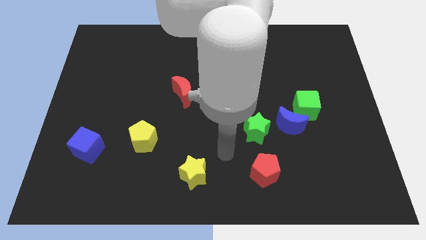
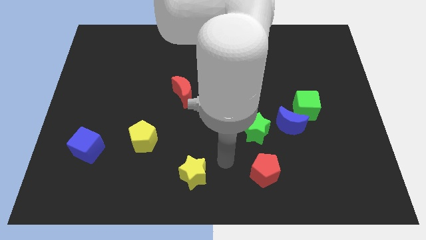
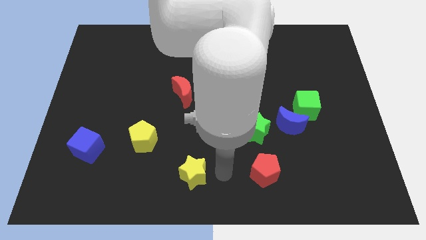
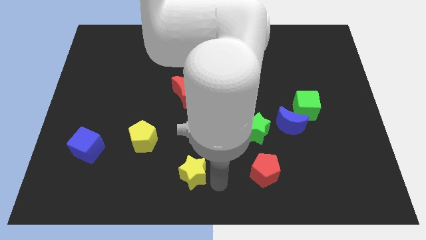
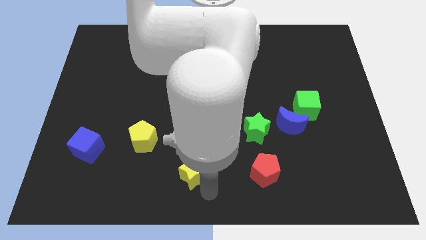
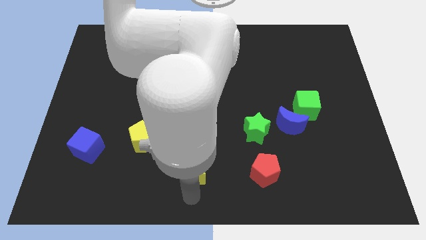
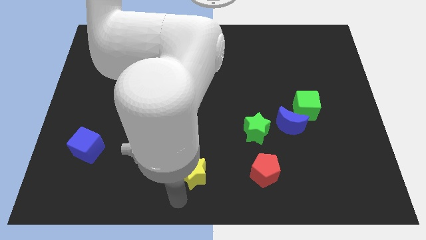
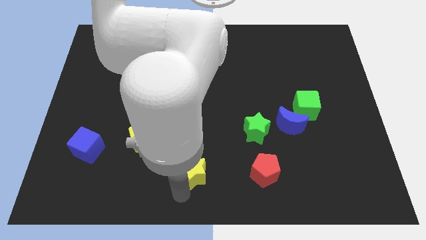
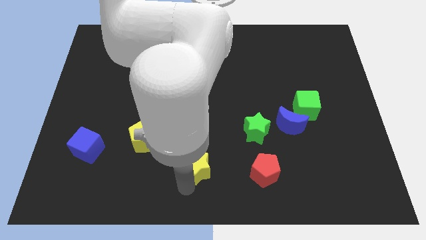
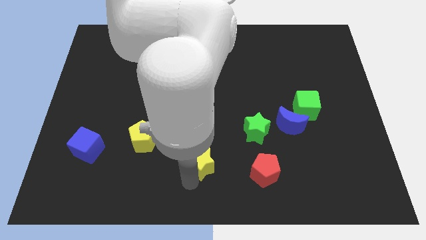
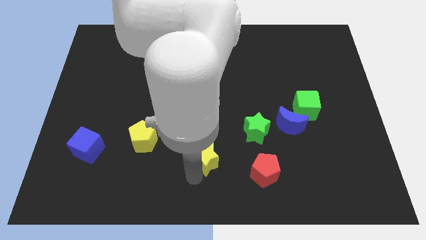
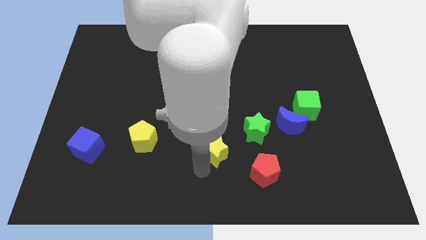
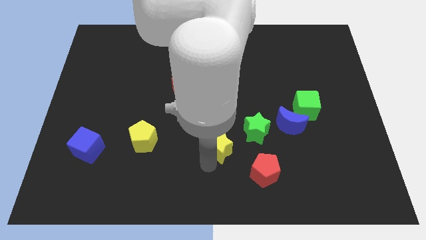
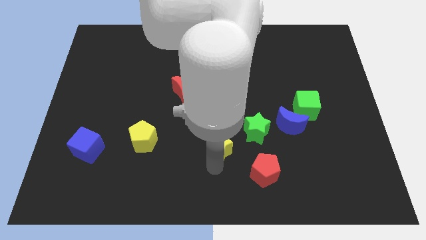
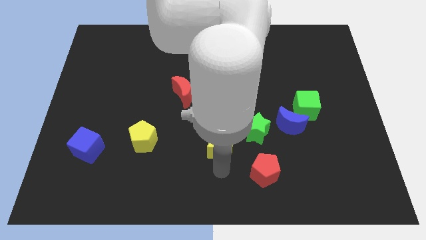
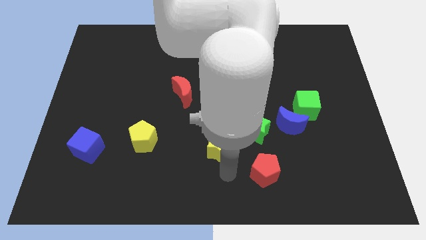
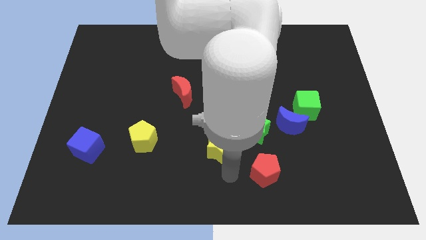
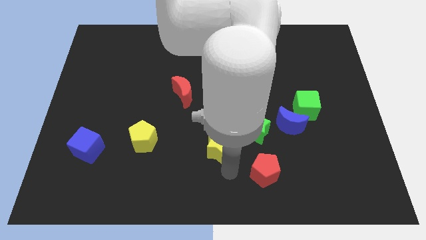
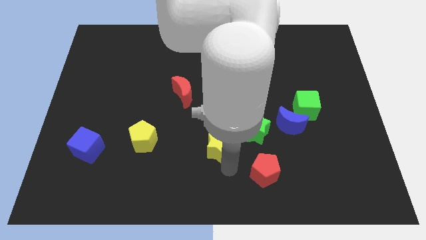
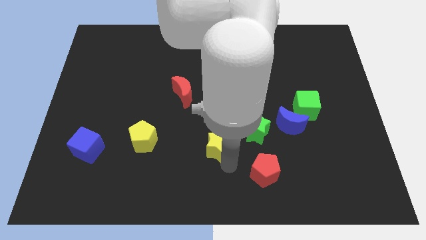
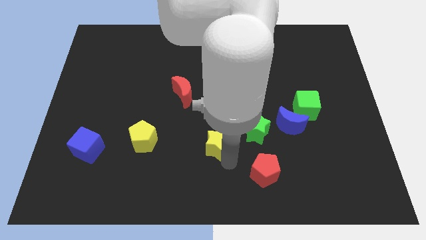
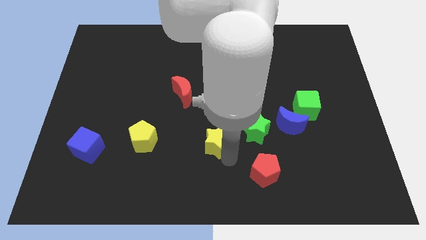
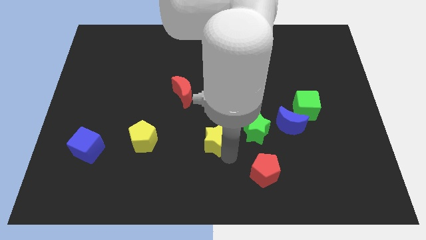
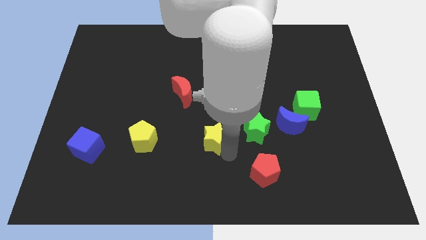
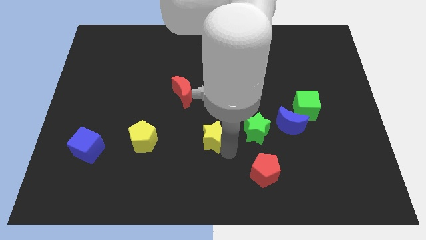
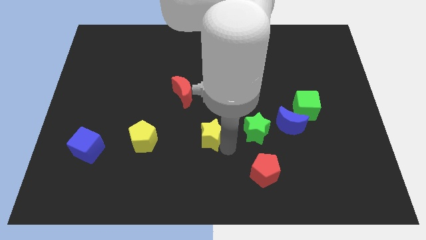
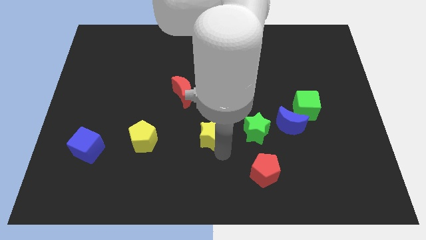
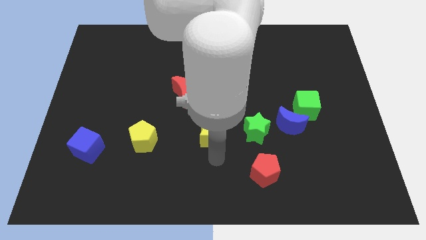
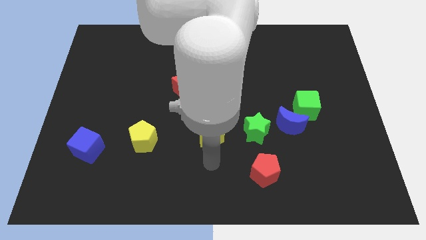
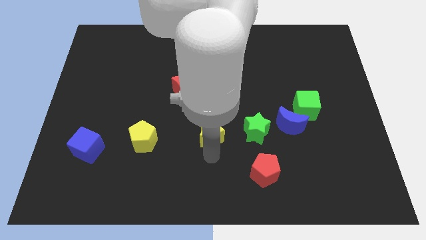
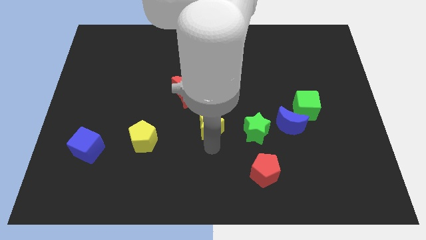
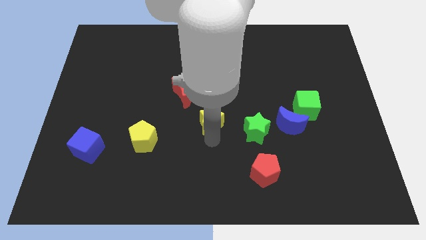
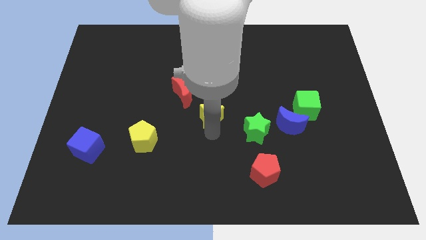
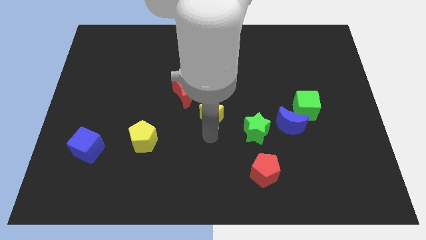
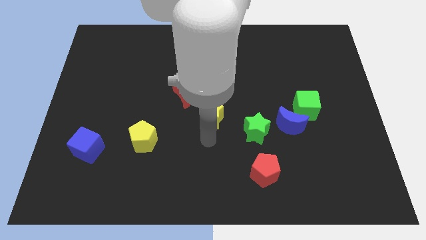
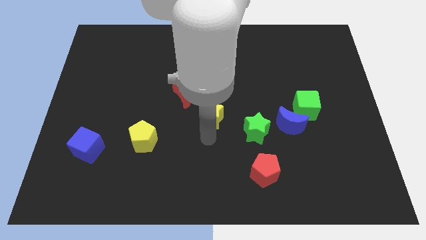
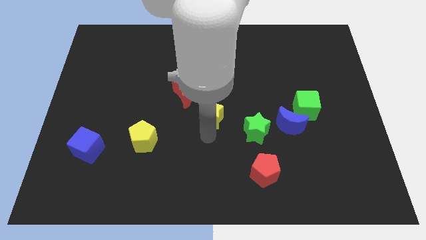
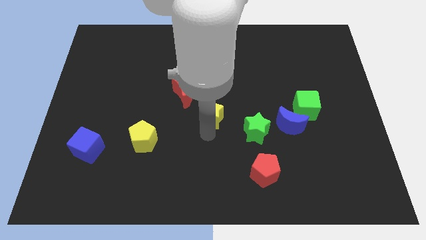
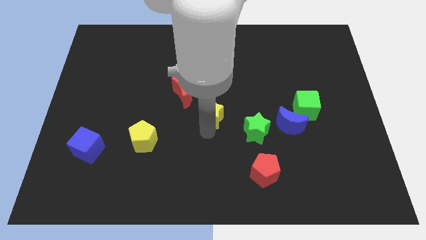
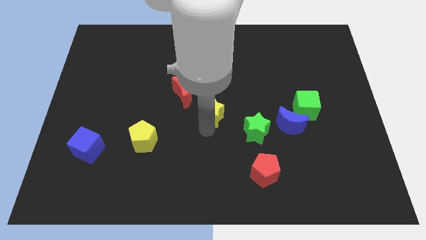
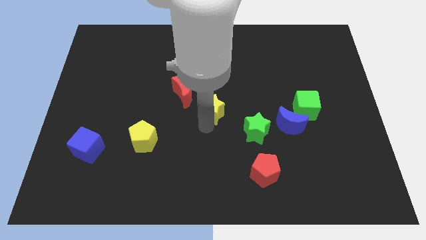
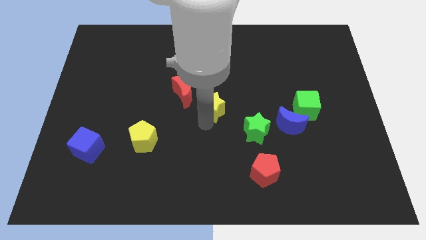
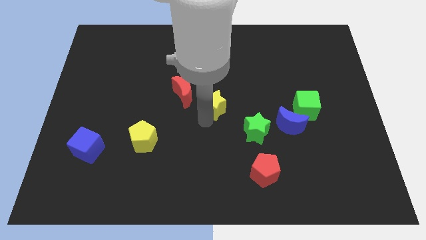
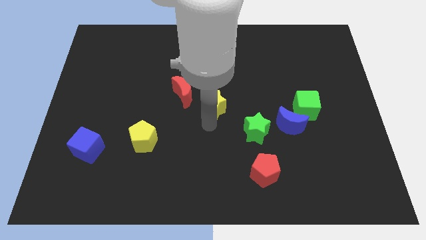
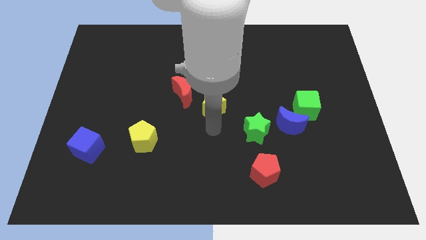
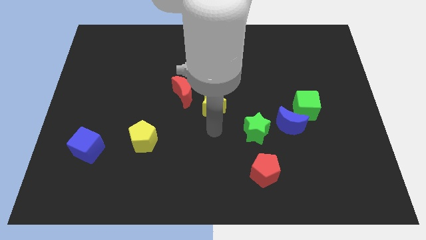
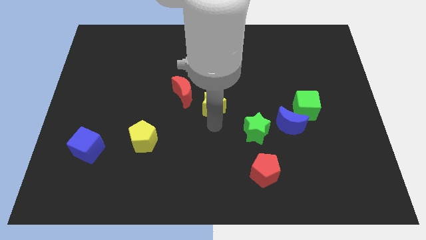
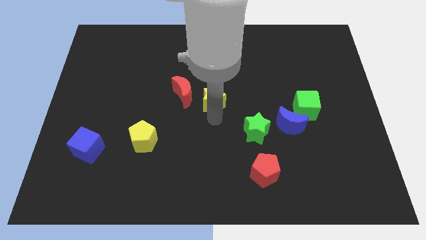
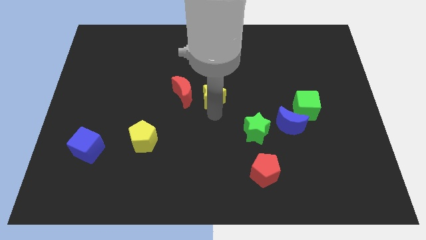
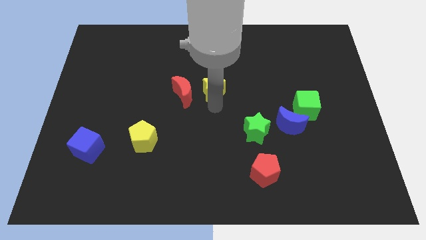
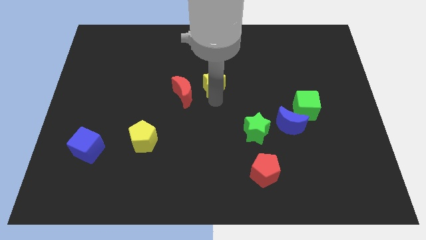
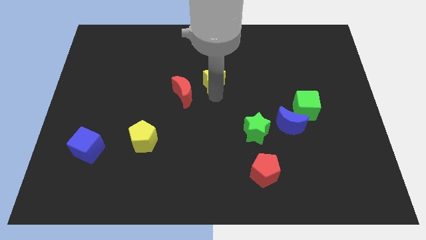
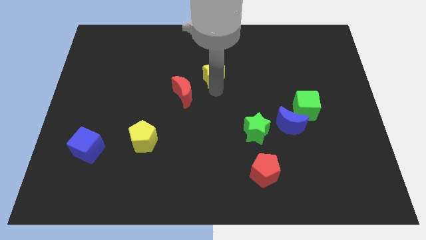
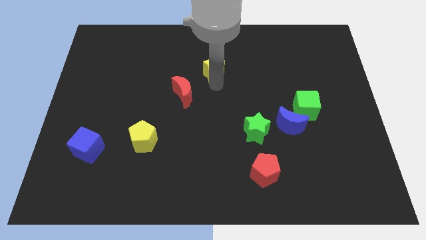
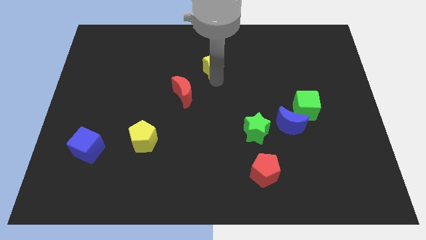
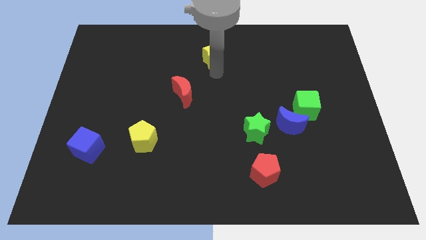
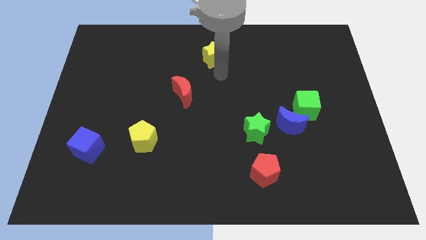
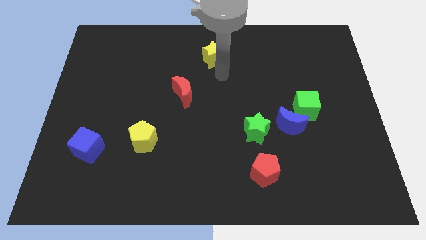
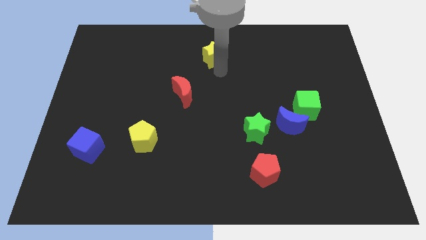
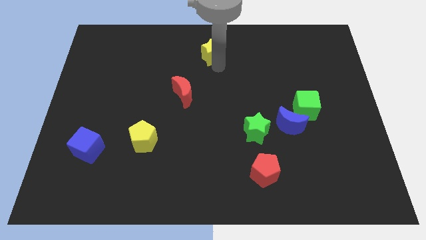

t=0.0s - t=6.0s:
slide the yellow star to the top
